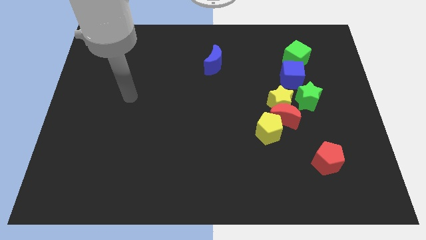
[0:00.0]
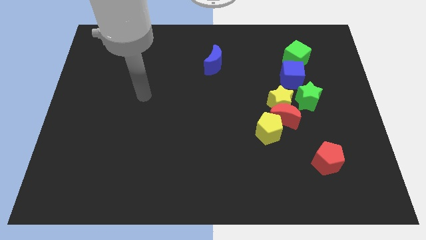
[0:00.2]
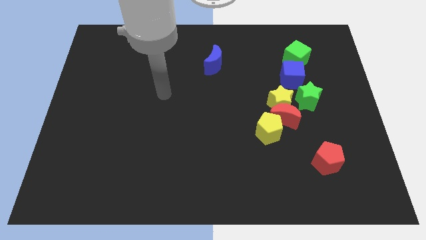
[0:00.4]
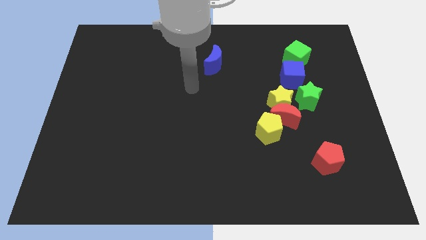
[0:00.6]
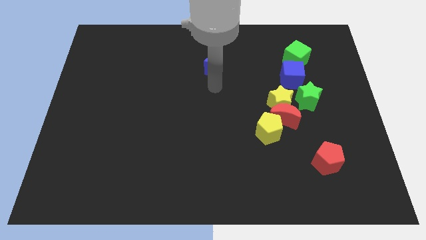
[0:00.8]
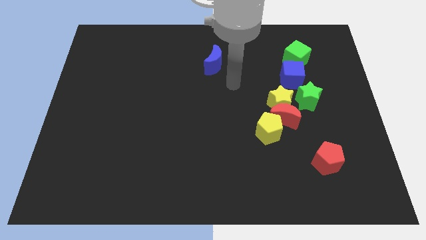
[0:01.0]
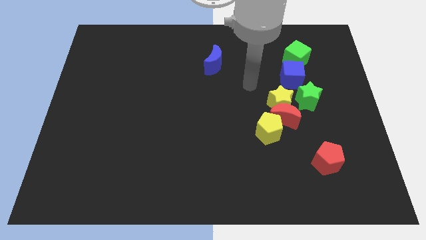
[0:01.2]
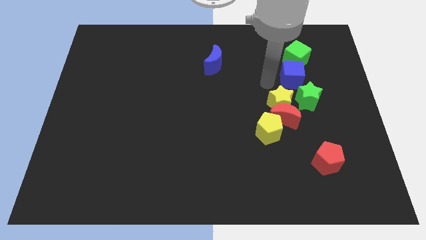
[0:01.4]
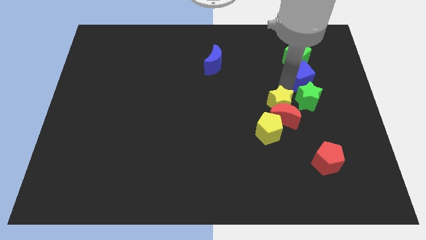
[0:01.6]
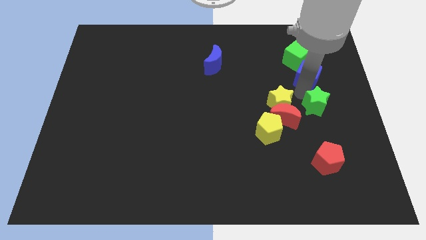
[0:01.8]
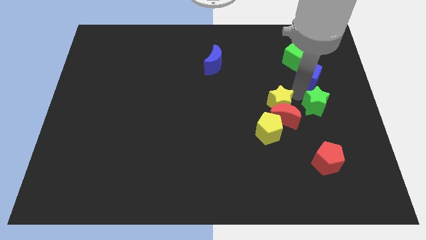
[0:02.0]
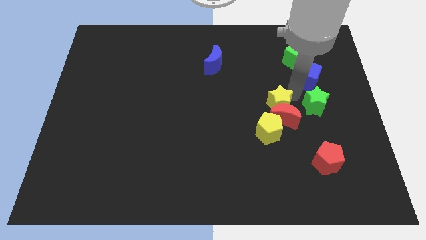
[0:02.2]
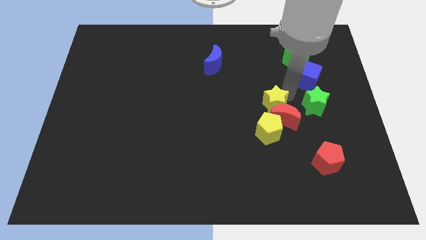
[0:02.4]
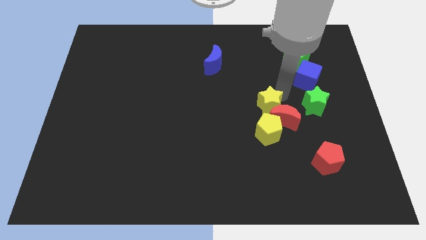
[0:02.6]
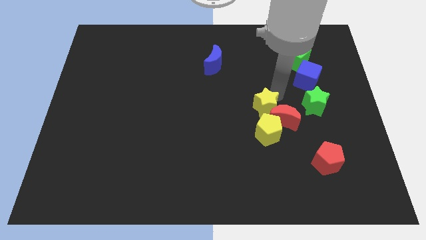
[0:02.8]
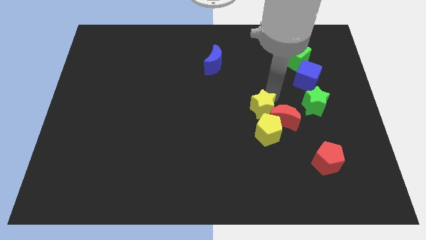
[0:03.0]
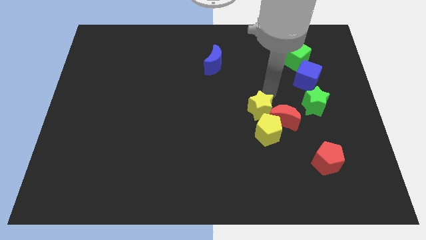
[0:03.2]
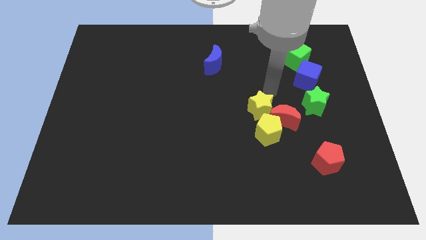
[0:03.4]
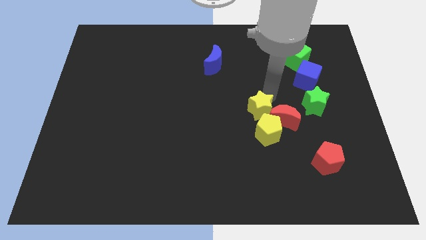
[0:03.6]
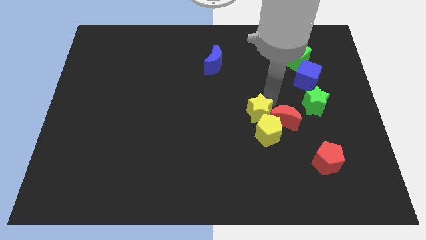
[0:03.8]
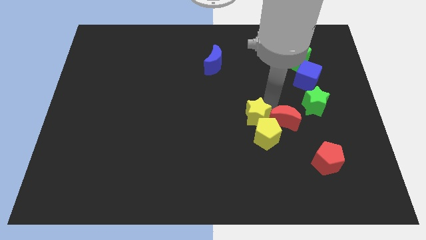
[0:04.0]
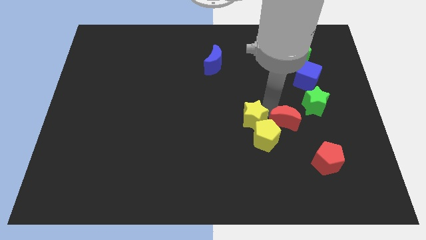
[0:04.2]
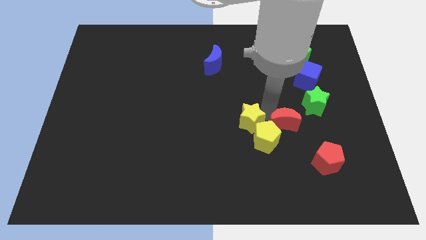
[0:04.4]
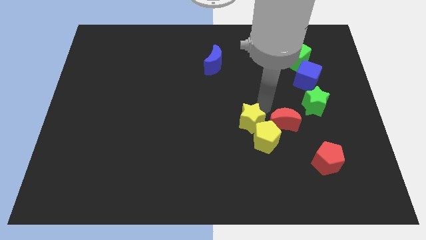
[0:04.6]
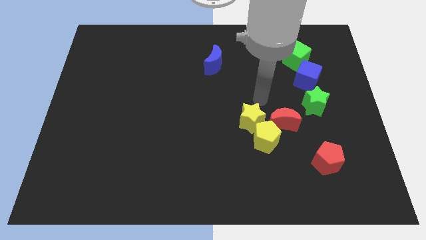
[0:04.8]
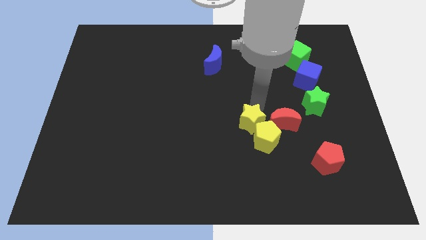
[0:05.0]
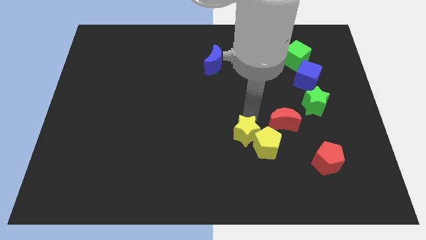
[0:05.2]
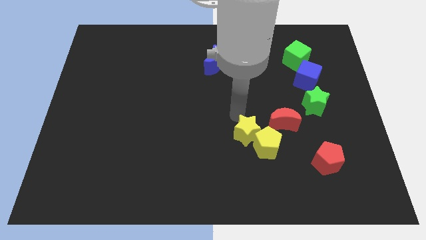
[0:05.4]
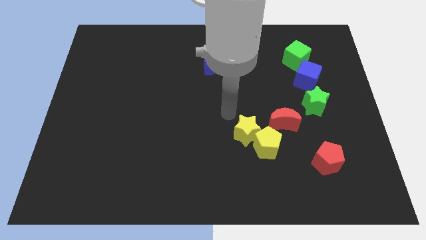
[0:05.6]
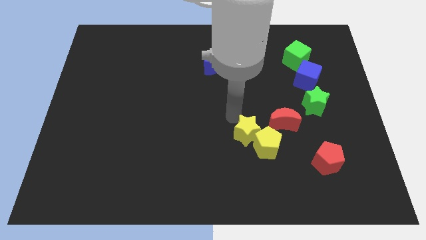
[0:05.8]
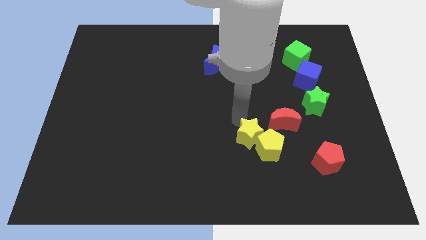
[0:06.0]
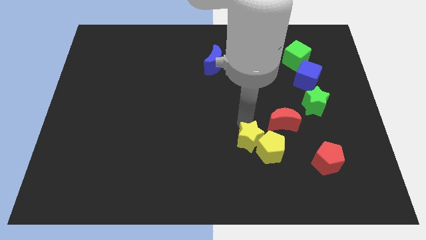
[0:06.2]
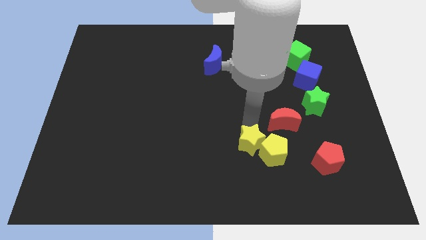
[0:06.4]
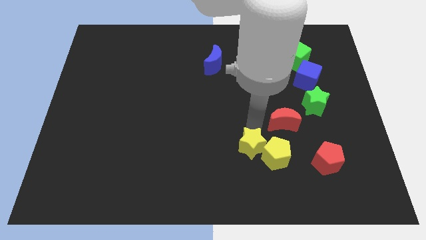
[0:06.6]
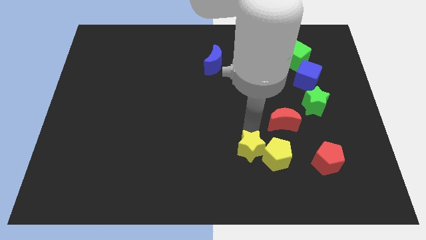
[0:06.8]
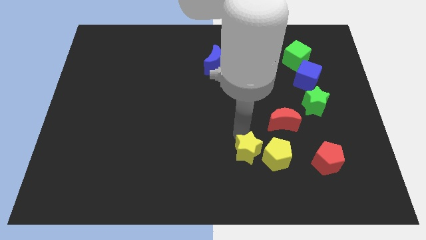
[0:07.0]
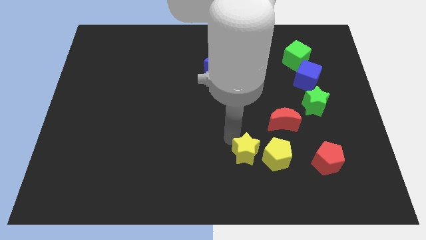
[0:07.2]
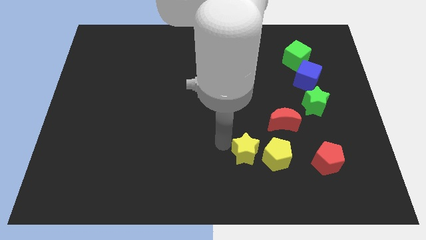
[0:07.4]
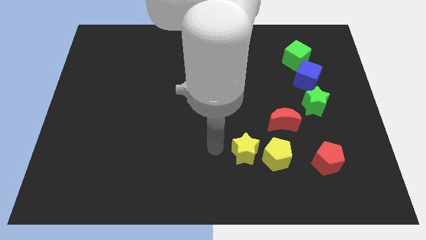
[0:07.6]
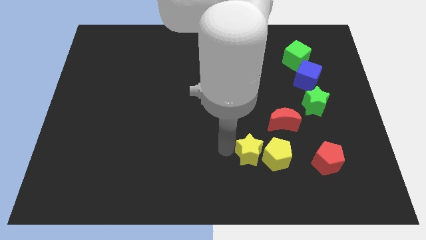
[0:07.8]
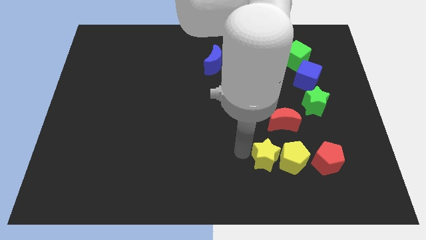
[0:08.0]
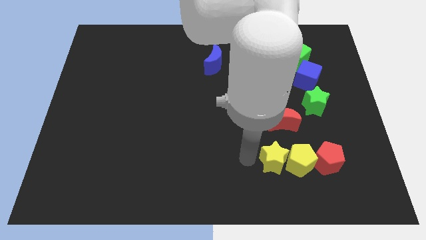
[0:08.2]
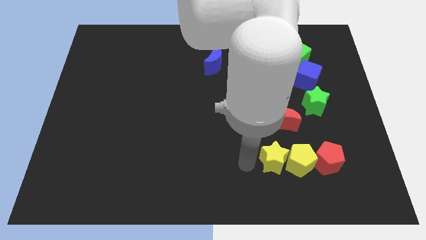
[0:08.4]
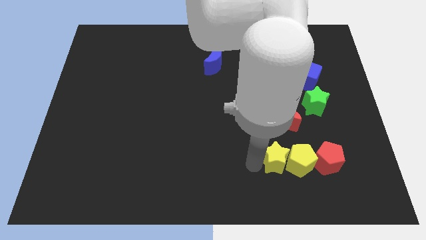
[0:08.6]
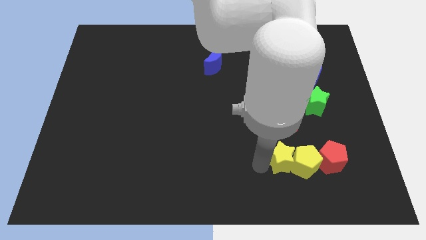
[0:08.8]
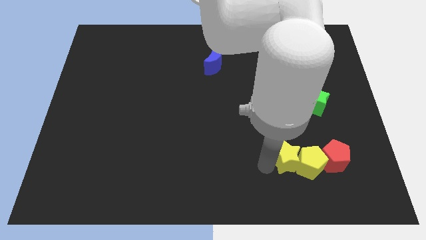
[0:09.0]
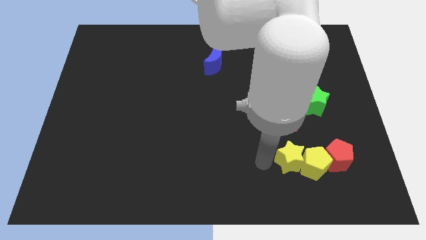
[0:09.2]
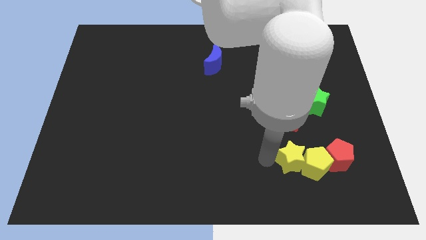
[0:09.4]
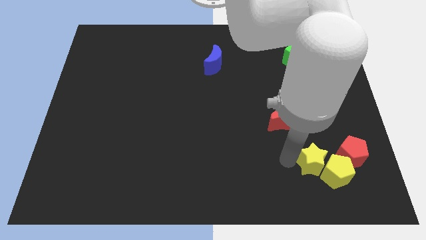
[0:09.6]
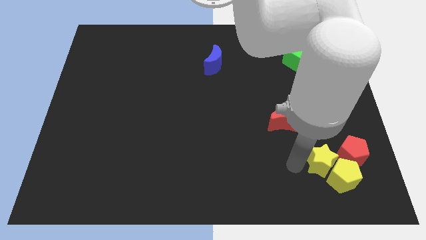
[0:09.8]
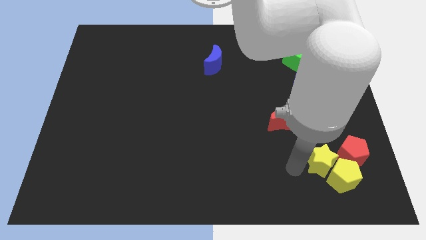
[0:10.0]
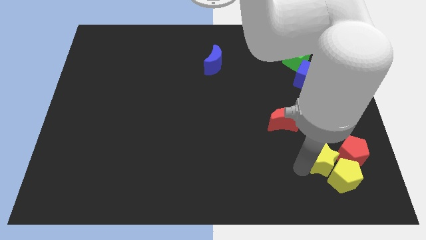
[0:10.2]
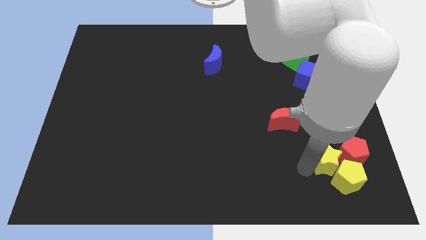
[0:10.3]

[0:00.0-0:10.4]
slide the yellow star next to the red pentagon

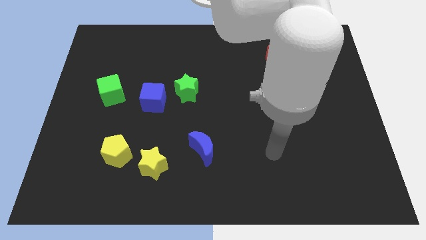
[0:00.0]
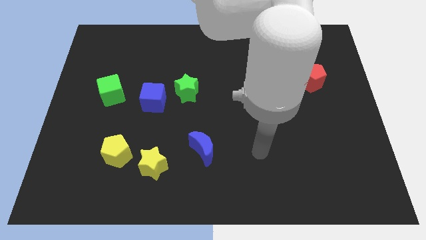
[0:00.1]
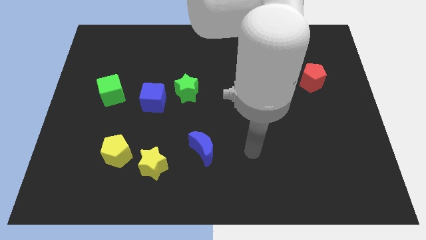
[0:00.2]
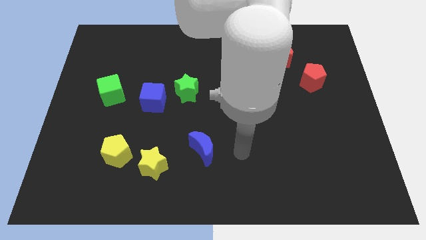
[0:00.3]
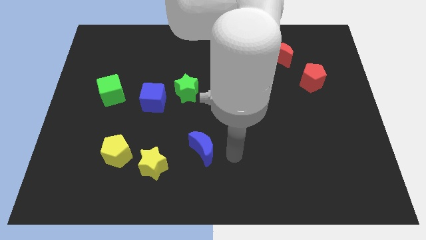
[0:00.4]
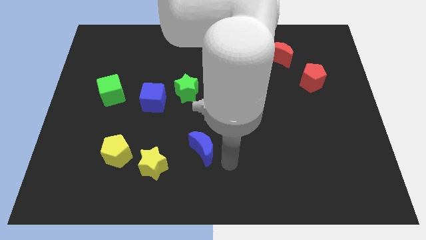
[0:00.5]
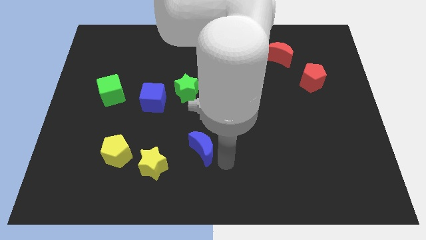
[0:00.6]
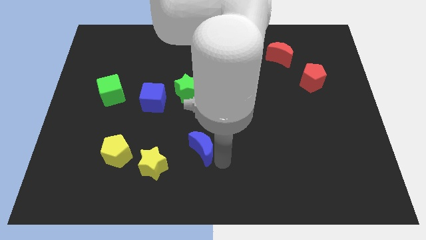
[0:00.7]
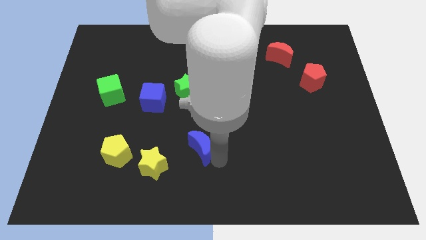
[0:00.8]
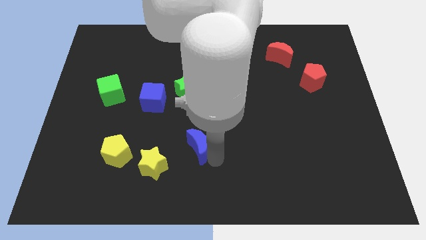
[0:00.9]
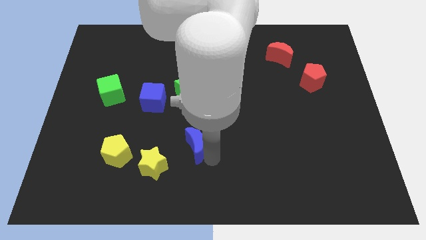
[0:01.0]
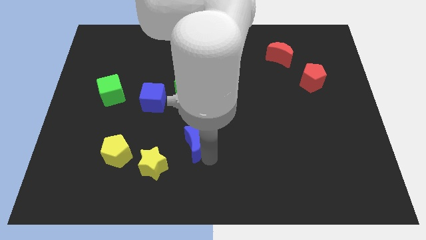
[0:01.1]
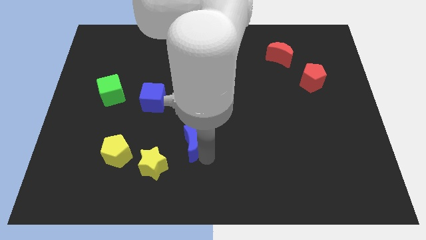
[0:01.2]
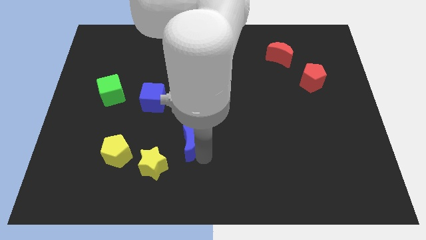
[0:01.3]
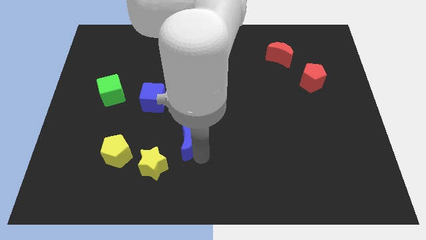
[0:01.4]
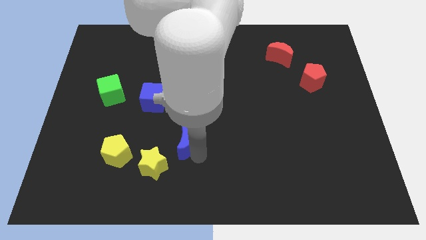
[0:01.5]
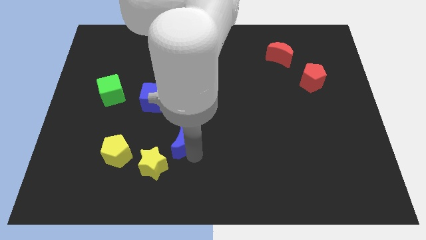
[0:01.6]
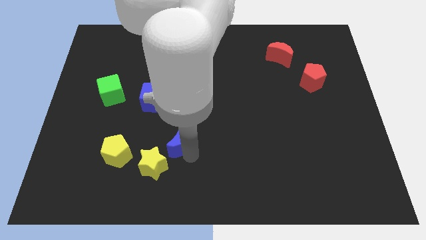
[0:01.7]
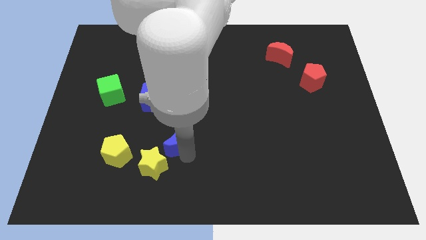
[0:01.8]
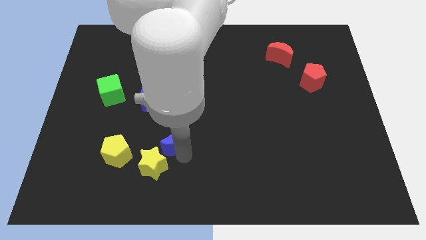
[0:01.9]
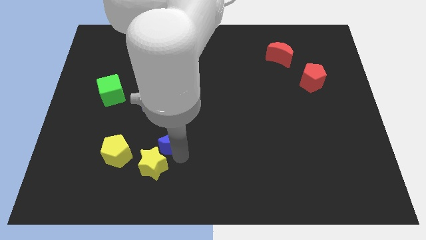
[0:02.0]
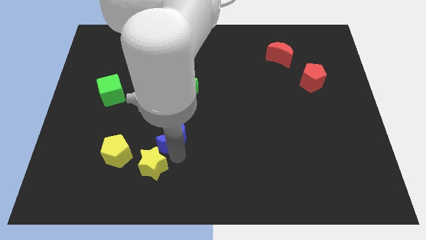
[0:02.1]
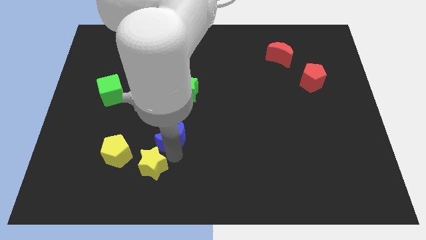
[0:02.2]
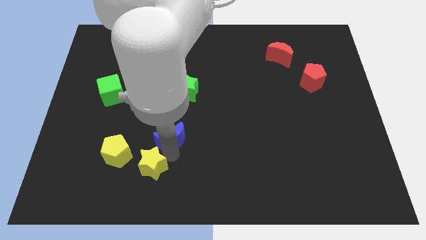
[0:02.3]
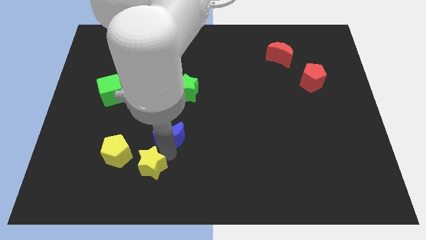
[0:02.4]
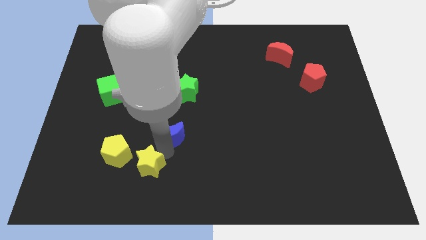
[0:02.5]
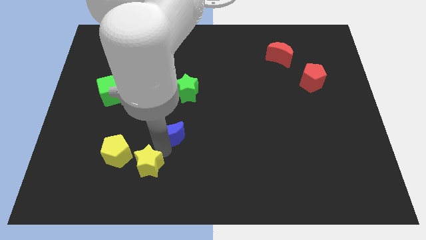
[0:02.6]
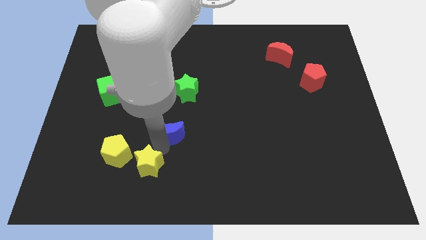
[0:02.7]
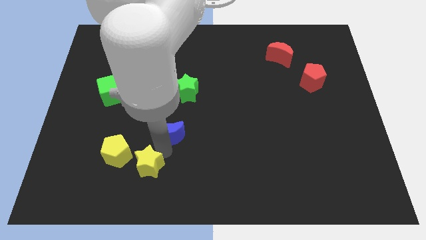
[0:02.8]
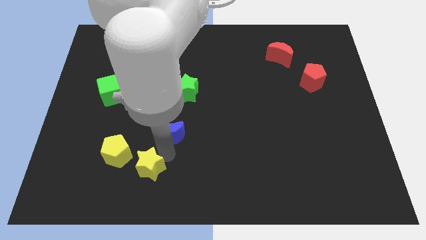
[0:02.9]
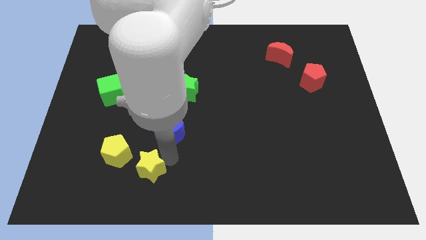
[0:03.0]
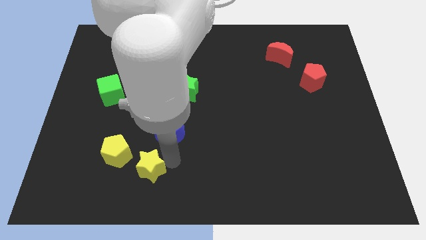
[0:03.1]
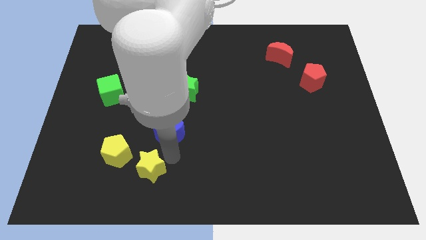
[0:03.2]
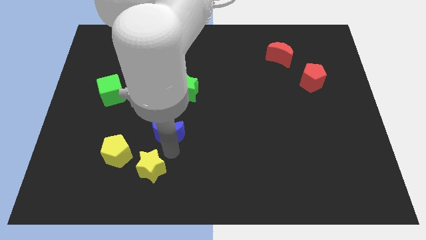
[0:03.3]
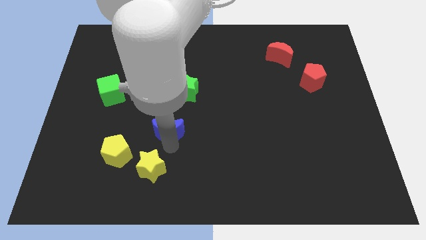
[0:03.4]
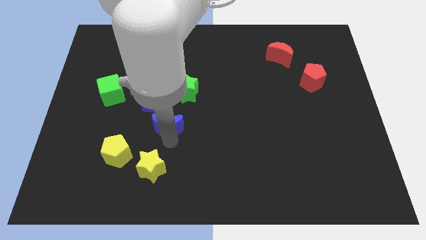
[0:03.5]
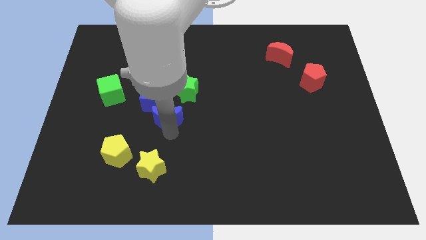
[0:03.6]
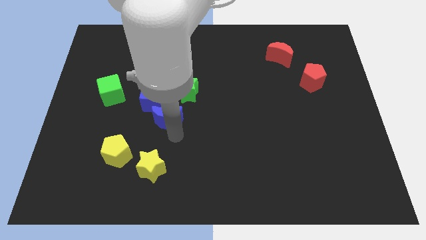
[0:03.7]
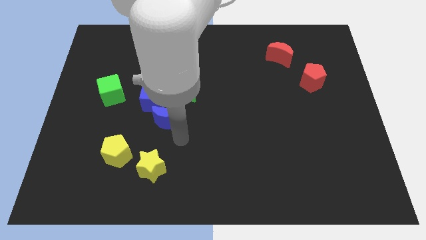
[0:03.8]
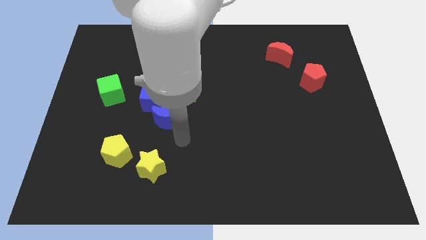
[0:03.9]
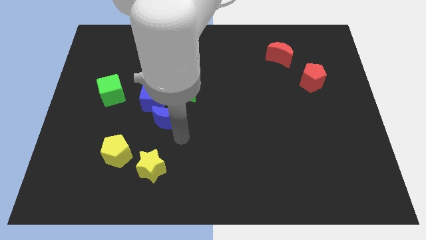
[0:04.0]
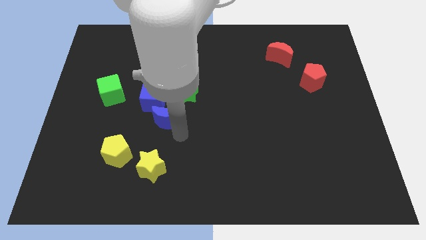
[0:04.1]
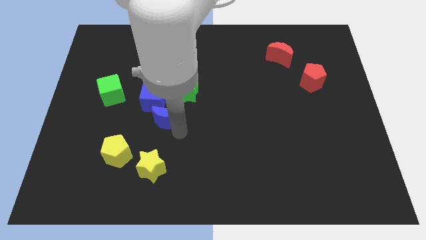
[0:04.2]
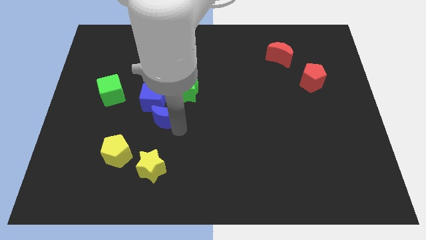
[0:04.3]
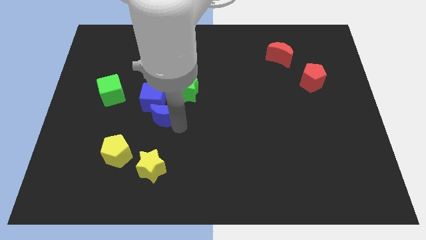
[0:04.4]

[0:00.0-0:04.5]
move the blue moon close to the blue cube
